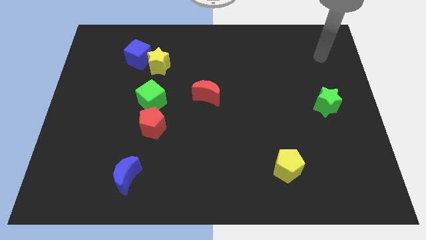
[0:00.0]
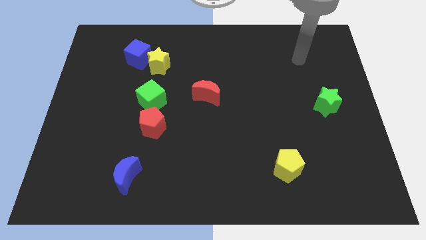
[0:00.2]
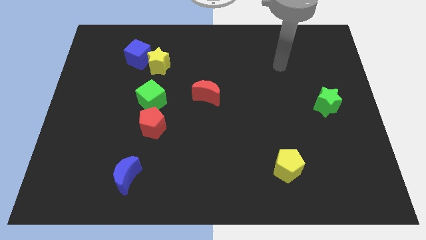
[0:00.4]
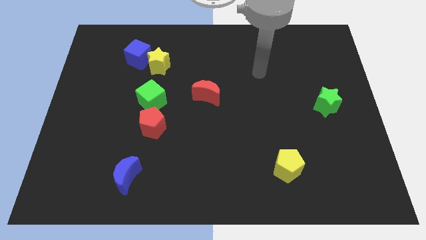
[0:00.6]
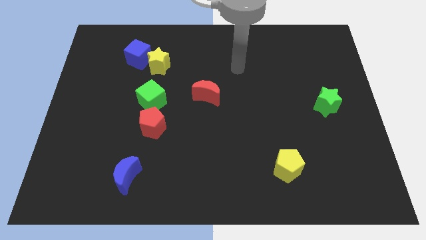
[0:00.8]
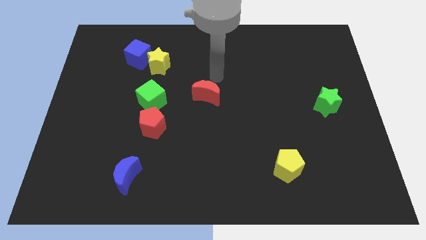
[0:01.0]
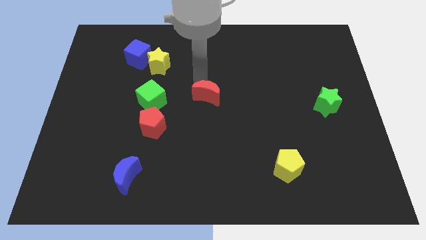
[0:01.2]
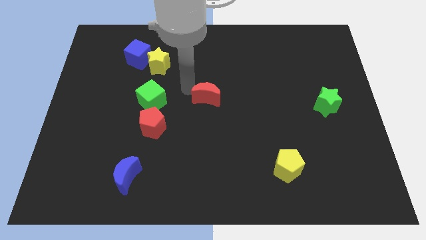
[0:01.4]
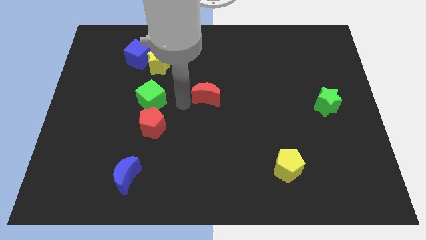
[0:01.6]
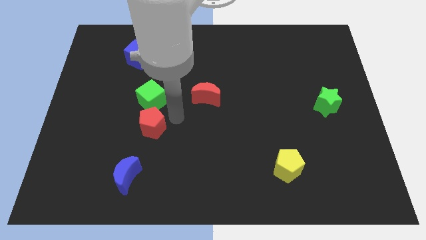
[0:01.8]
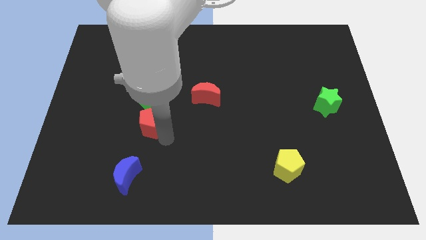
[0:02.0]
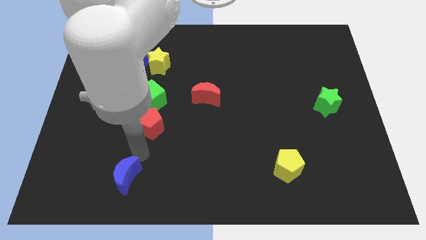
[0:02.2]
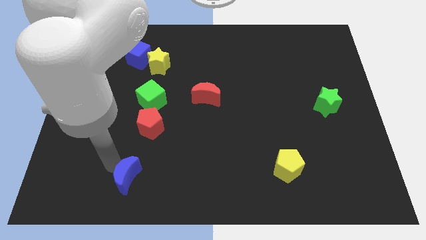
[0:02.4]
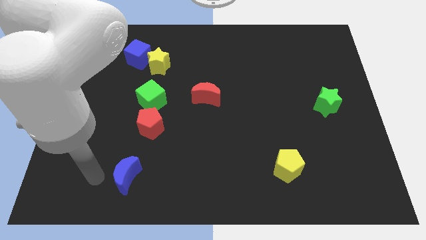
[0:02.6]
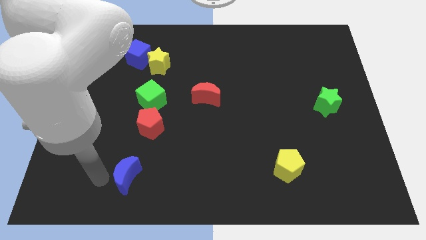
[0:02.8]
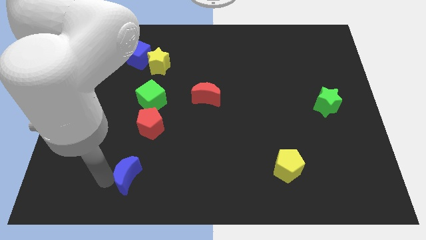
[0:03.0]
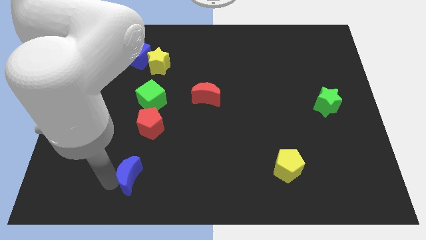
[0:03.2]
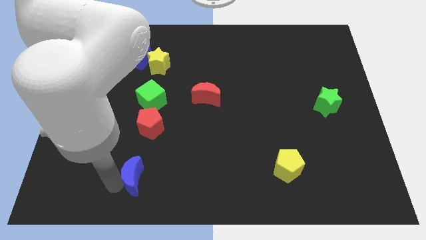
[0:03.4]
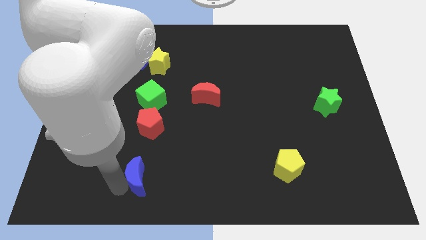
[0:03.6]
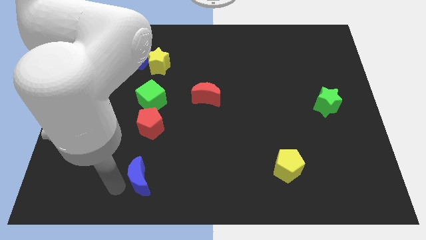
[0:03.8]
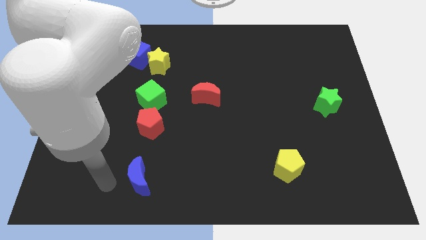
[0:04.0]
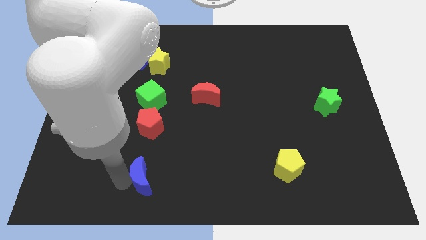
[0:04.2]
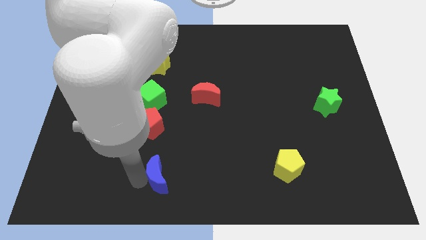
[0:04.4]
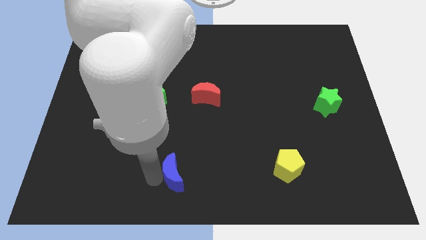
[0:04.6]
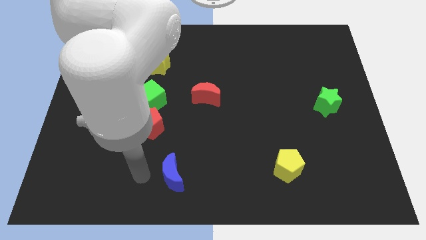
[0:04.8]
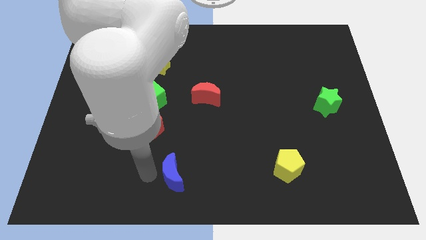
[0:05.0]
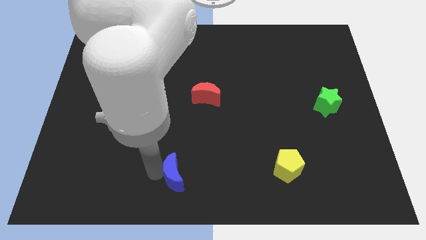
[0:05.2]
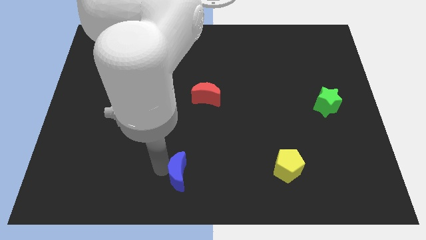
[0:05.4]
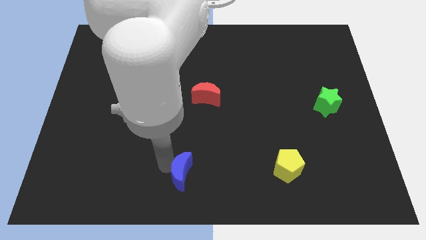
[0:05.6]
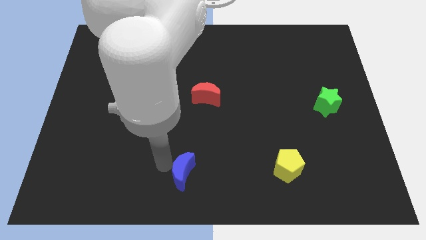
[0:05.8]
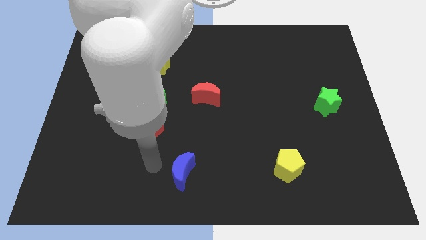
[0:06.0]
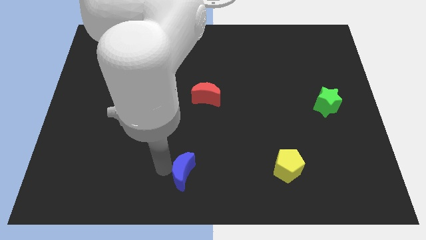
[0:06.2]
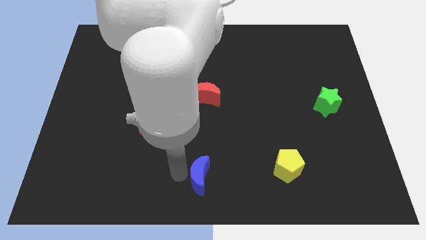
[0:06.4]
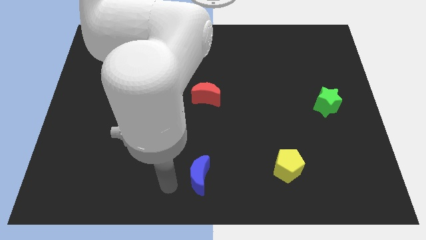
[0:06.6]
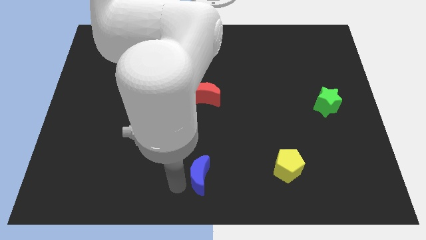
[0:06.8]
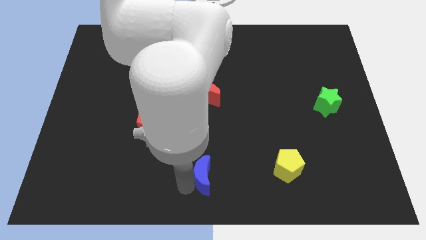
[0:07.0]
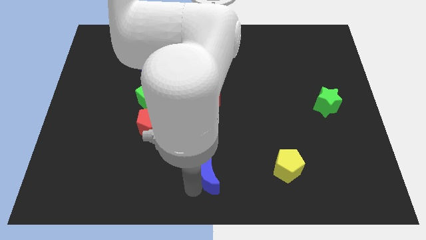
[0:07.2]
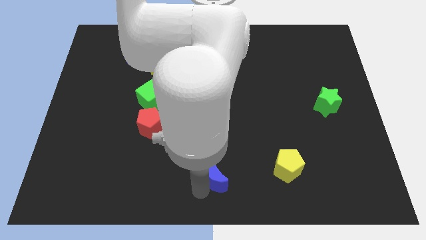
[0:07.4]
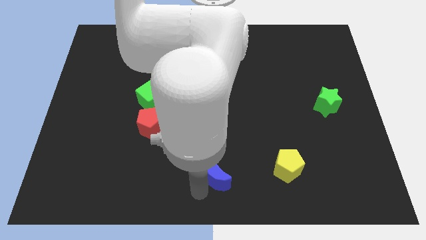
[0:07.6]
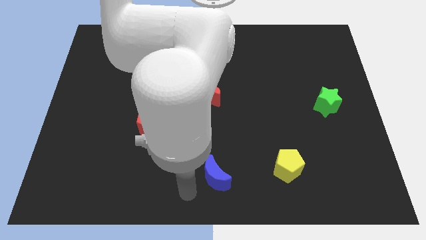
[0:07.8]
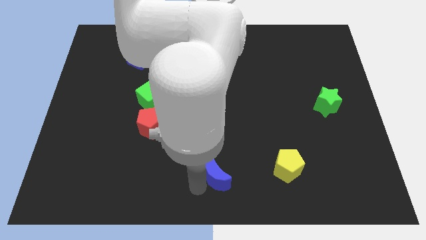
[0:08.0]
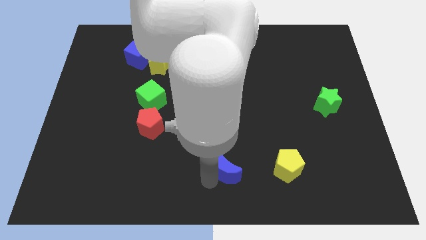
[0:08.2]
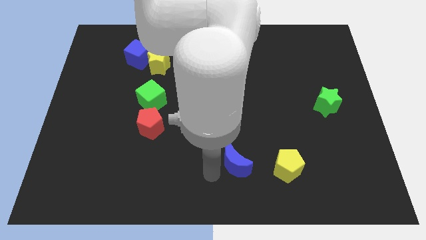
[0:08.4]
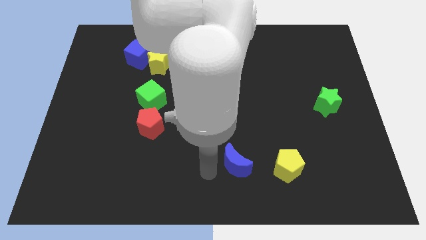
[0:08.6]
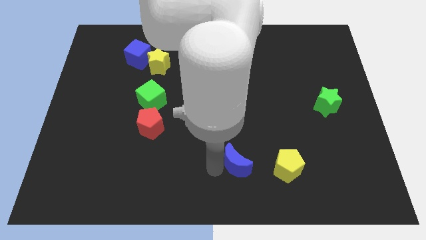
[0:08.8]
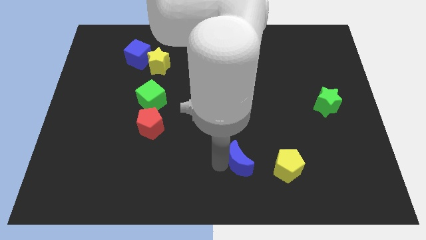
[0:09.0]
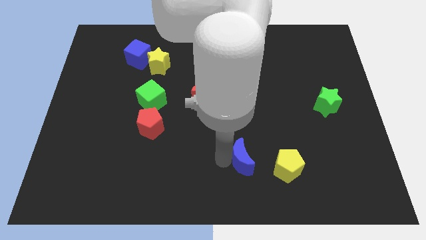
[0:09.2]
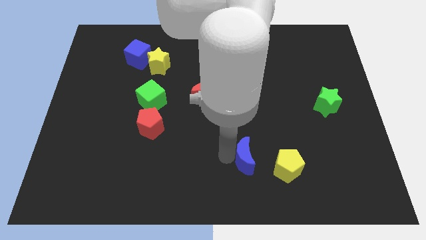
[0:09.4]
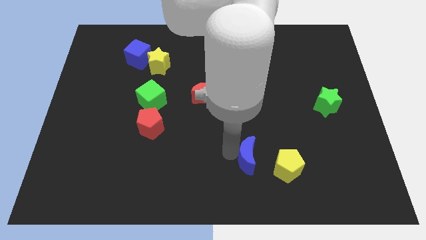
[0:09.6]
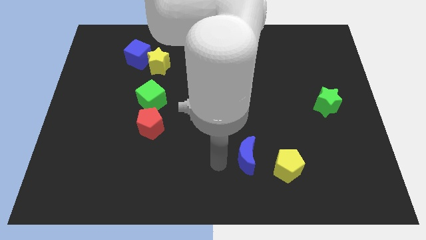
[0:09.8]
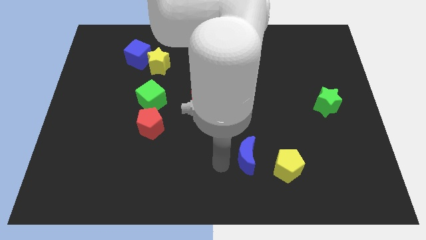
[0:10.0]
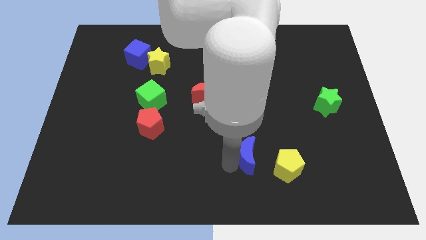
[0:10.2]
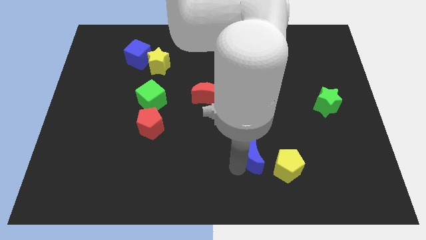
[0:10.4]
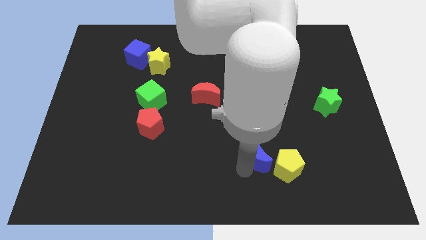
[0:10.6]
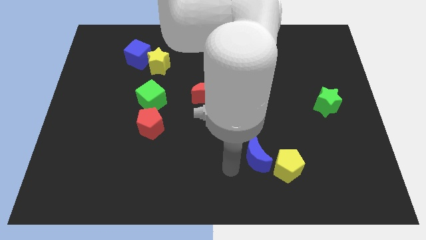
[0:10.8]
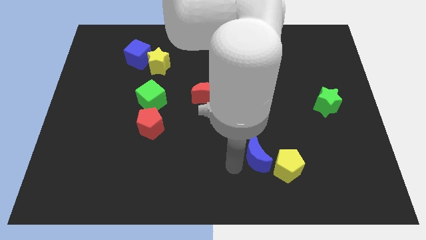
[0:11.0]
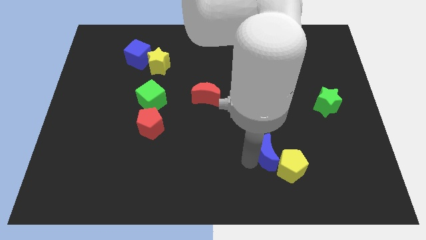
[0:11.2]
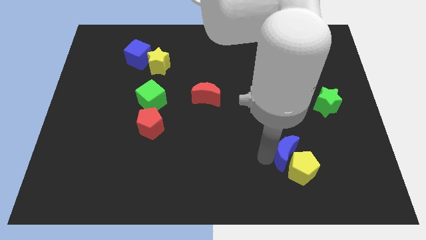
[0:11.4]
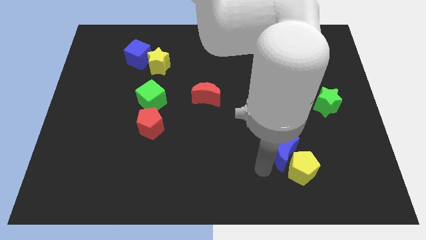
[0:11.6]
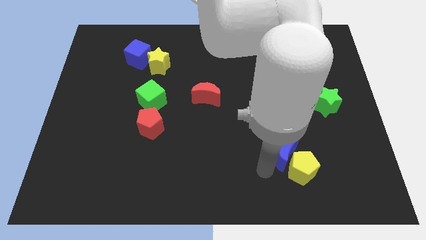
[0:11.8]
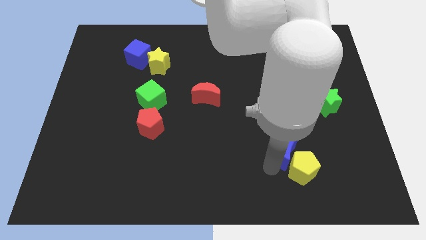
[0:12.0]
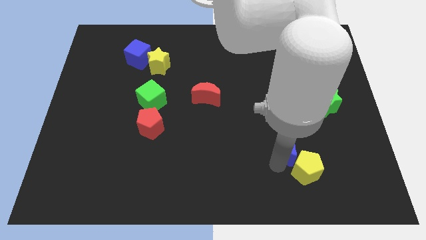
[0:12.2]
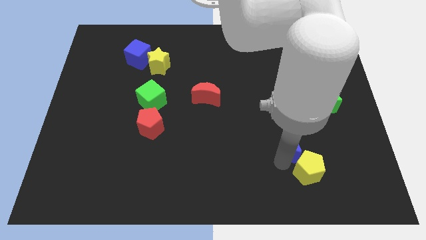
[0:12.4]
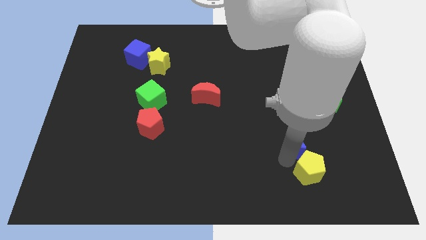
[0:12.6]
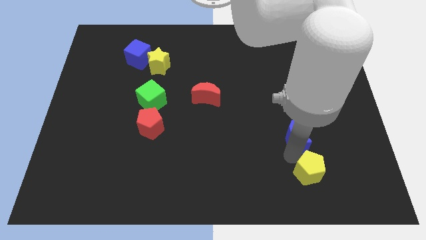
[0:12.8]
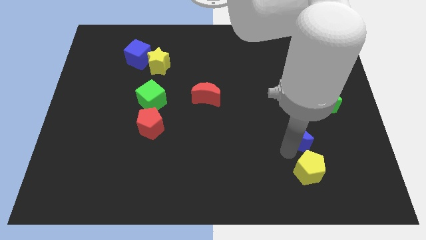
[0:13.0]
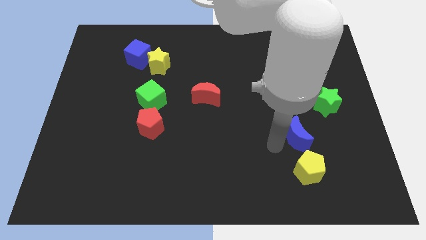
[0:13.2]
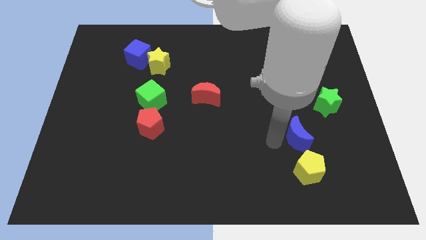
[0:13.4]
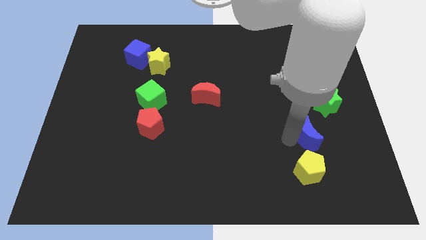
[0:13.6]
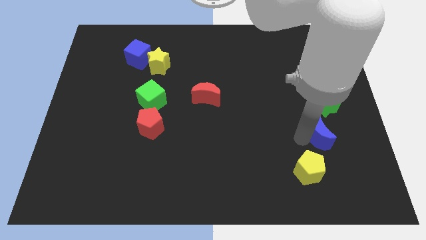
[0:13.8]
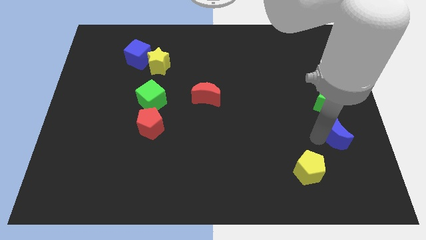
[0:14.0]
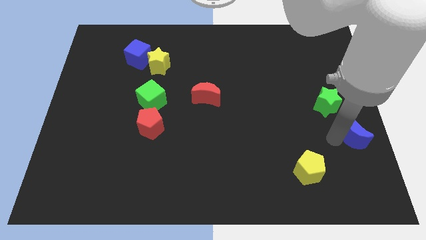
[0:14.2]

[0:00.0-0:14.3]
put the blue moon to the right side of the board

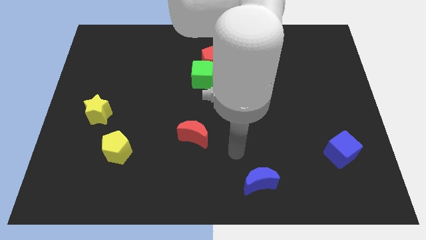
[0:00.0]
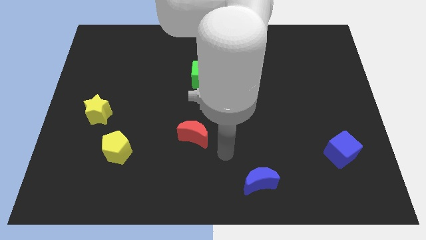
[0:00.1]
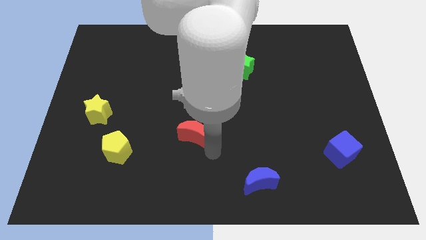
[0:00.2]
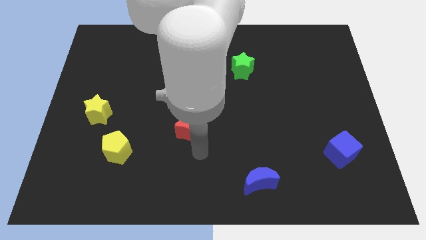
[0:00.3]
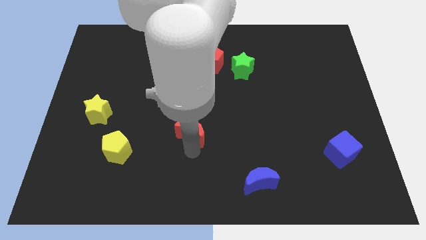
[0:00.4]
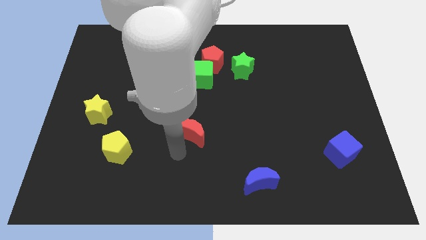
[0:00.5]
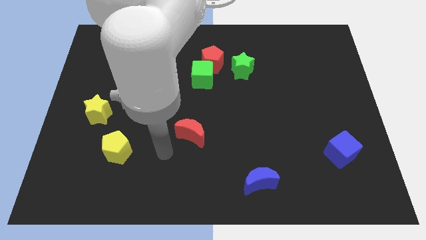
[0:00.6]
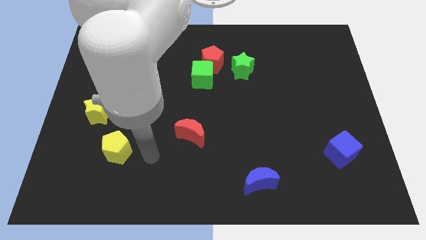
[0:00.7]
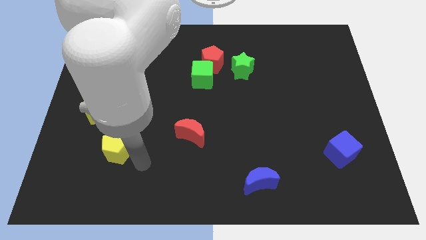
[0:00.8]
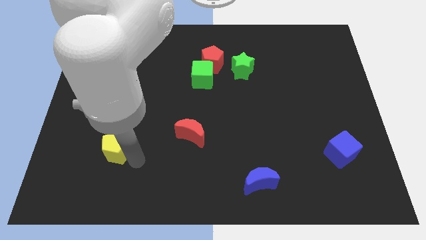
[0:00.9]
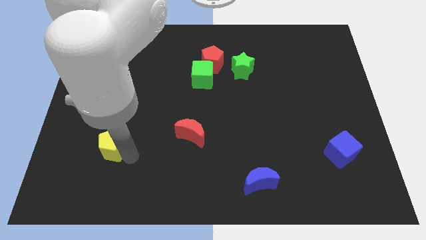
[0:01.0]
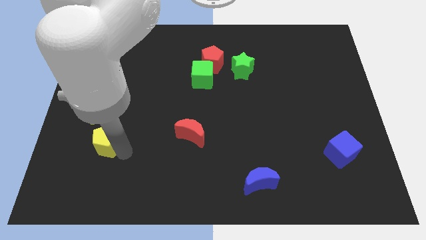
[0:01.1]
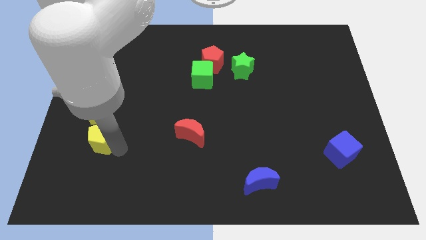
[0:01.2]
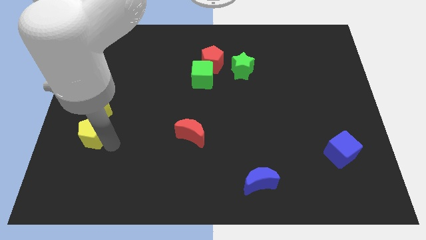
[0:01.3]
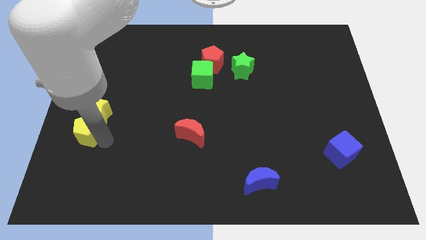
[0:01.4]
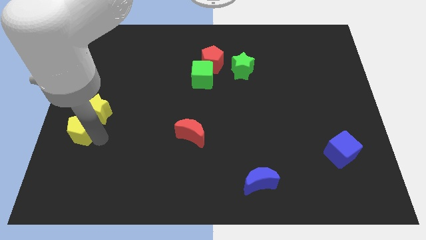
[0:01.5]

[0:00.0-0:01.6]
slide the yellow pentagon to the left side of the board
